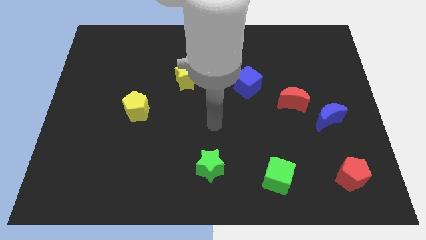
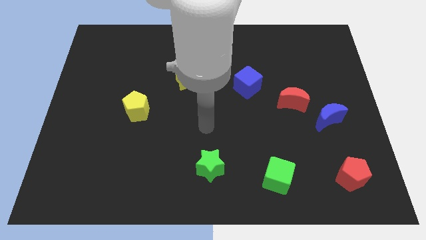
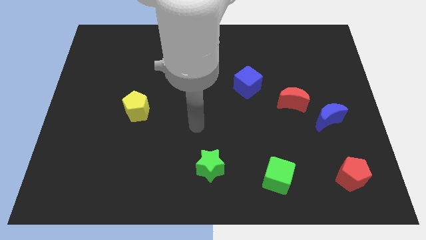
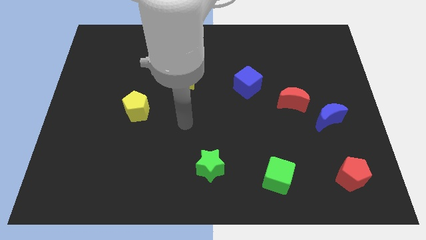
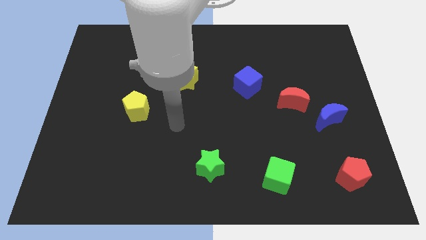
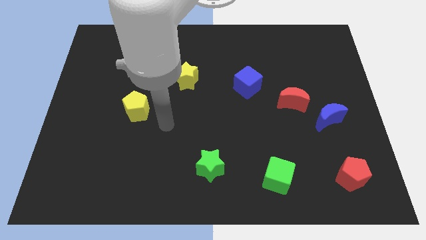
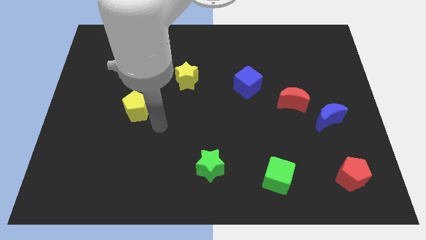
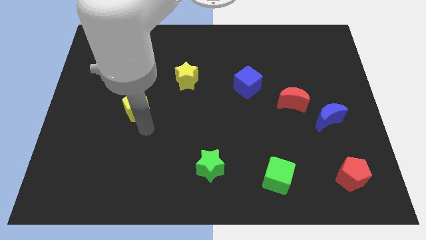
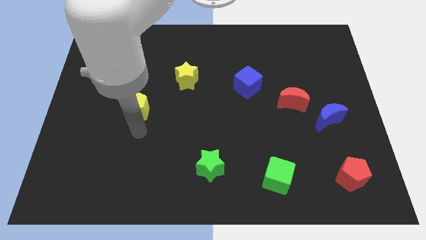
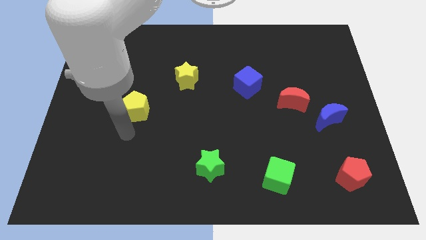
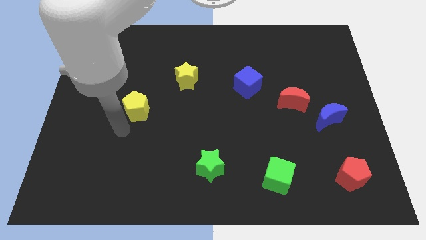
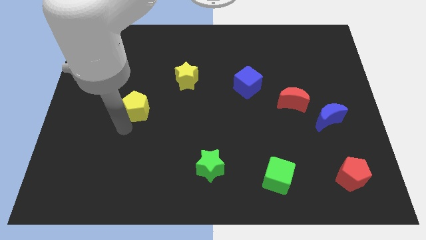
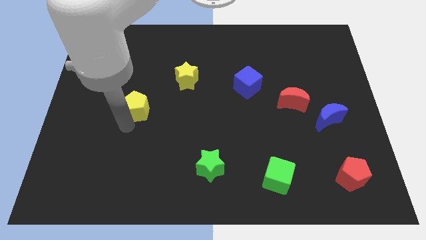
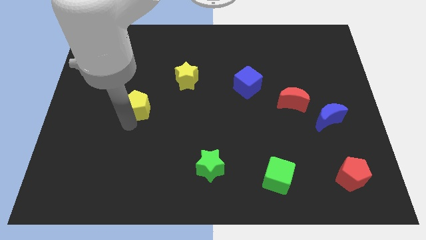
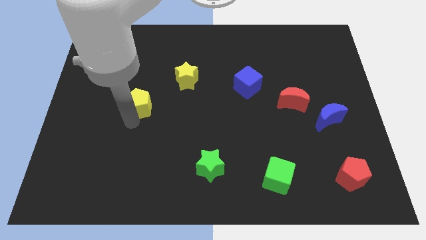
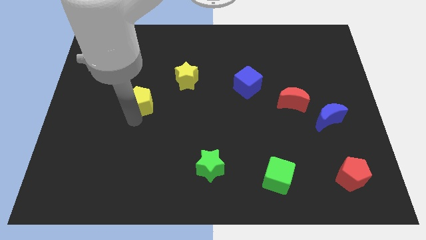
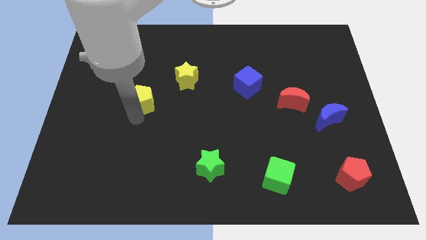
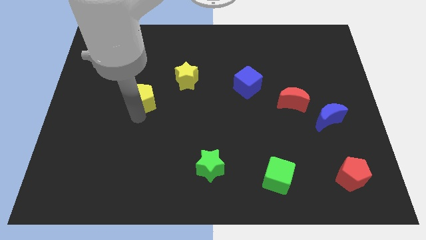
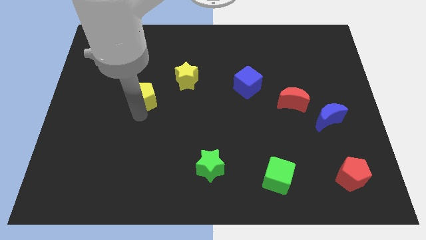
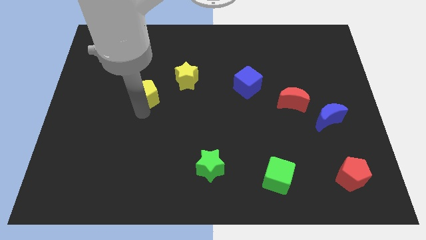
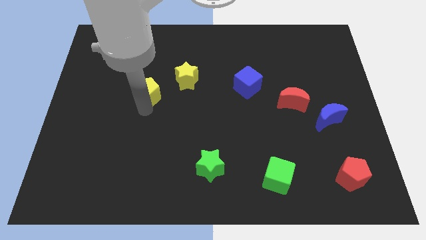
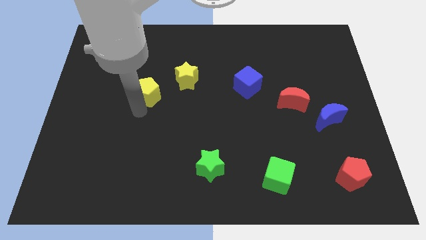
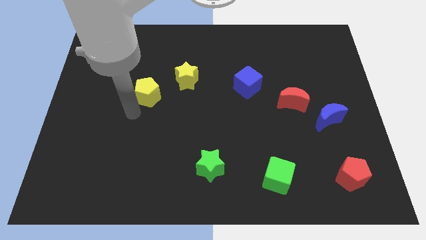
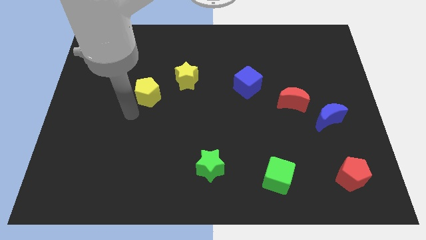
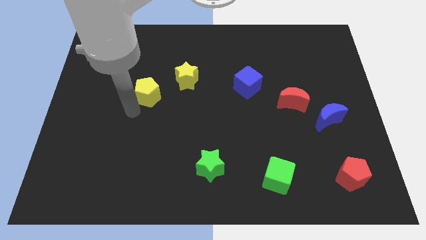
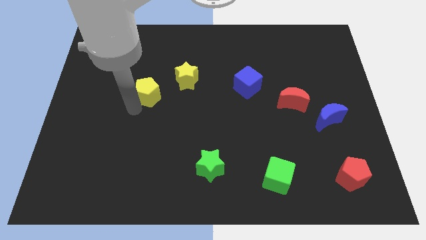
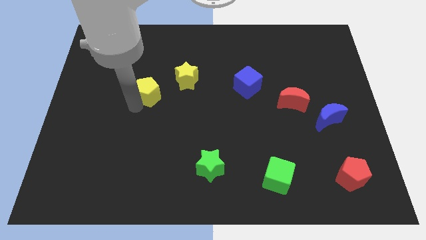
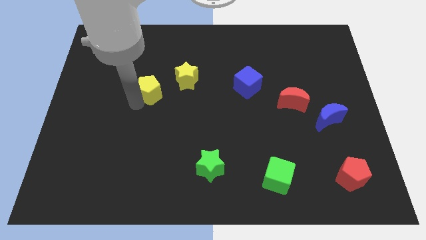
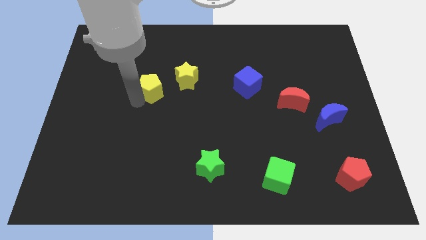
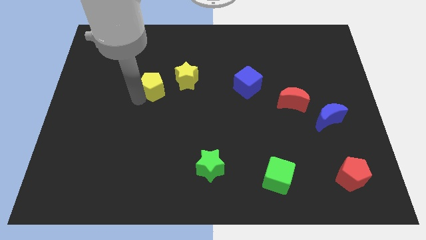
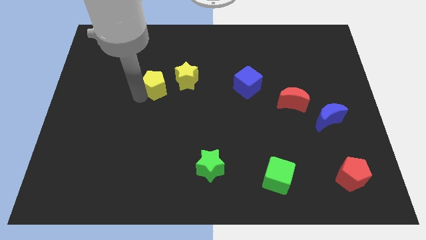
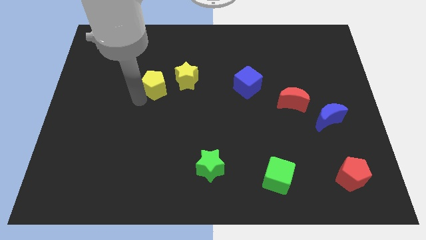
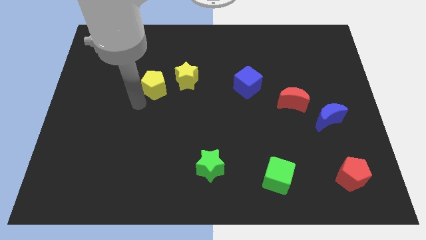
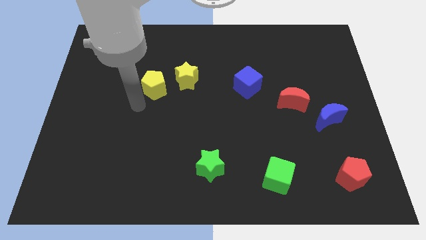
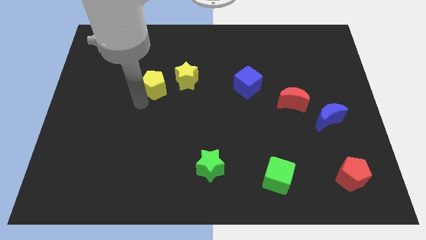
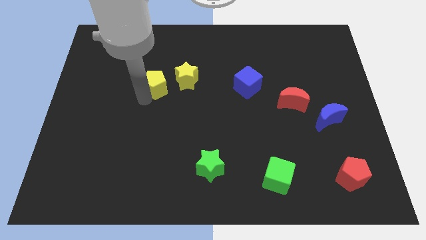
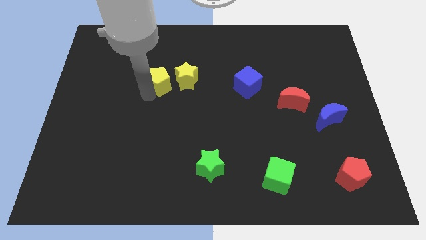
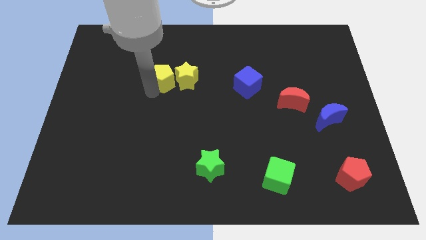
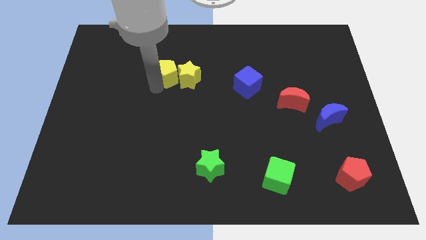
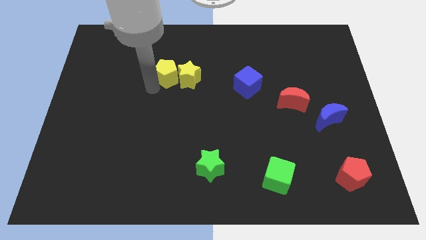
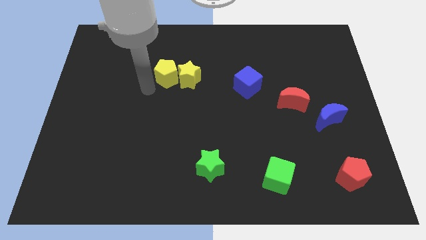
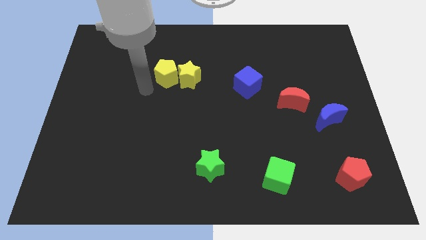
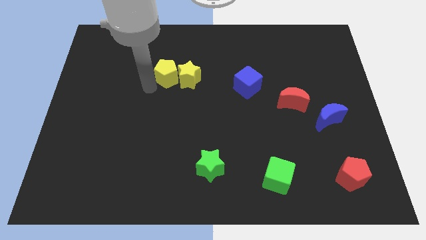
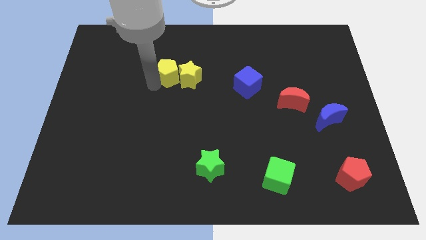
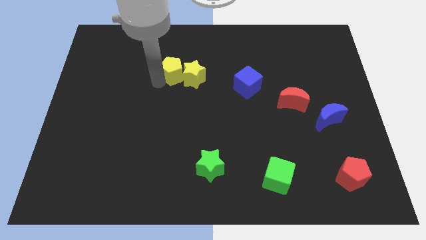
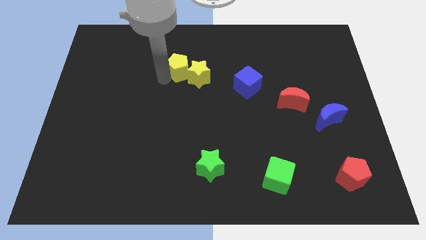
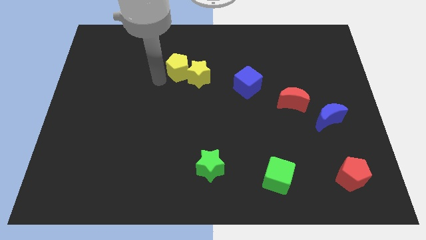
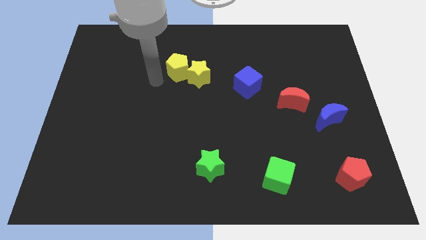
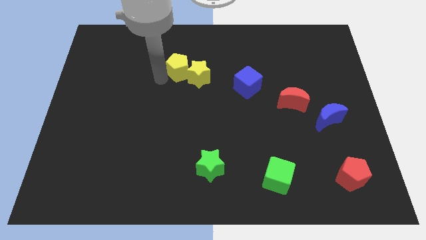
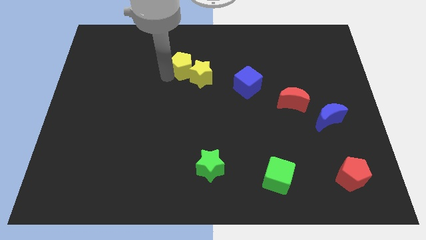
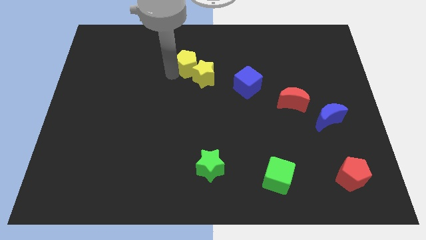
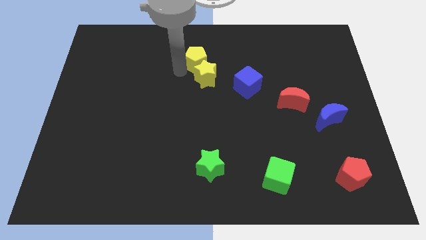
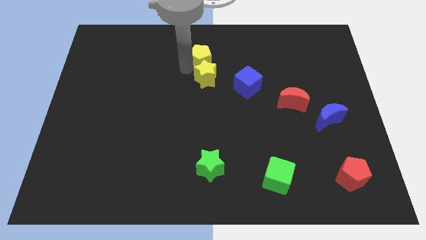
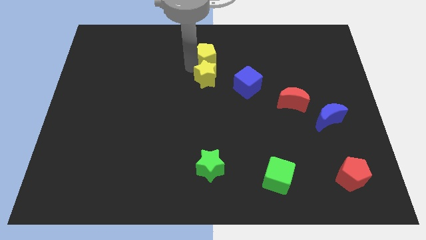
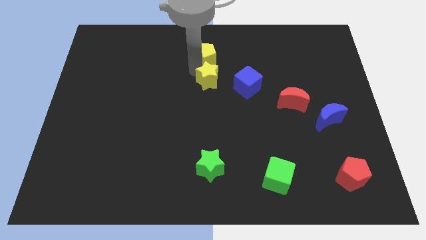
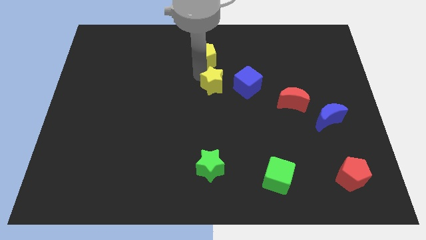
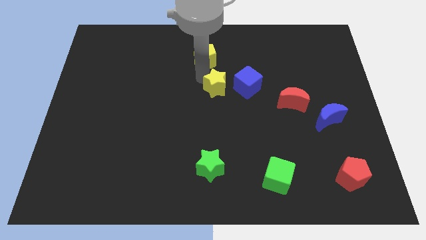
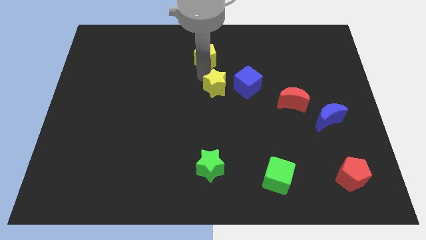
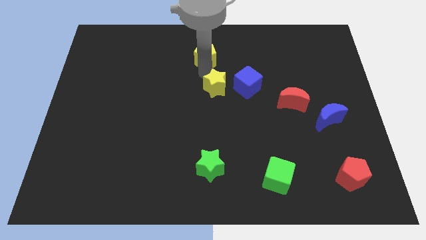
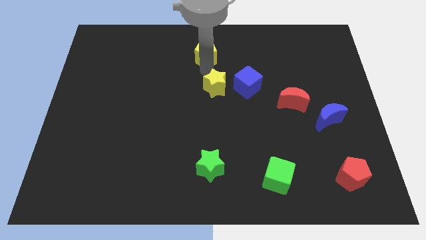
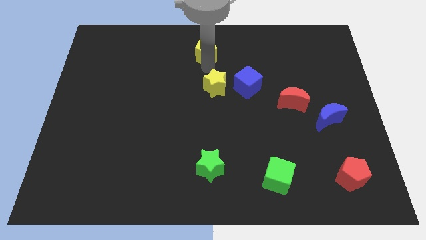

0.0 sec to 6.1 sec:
put the yellow pentagon to the top side
